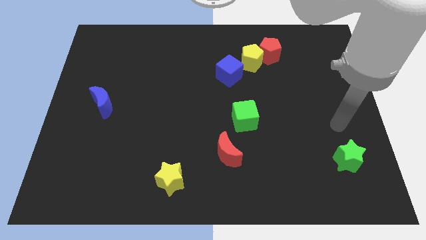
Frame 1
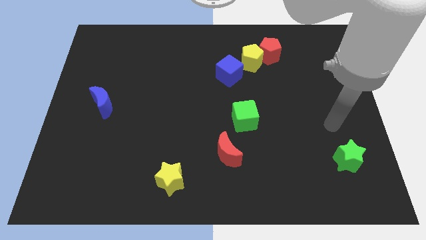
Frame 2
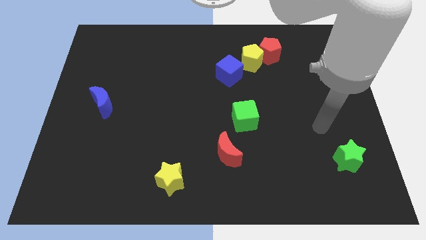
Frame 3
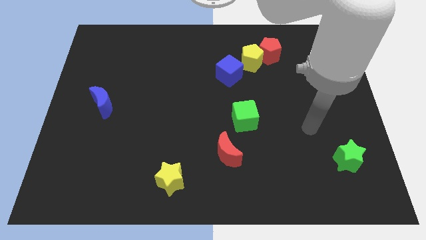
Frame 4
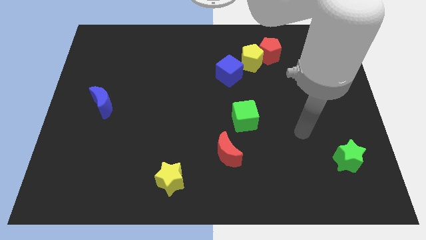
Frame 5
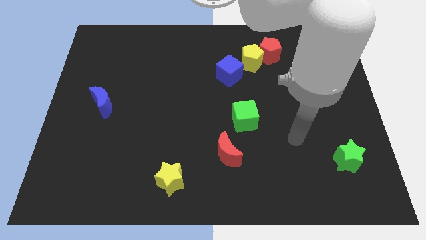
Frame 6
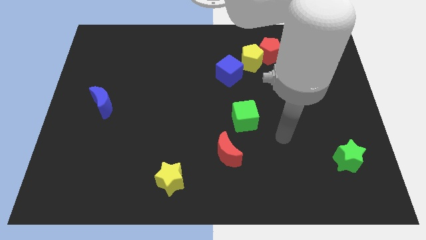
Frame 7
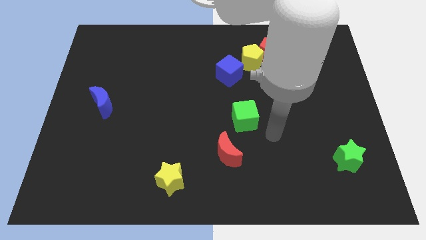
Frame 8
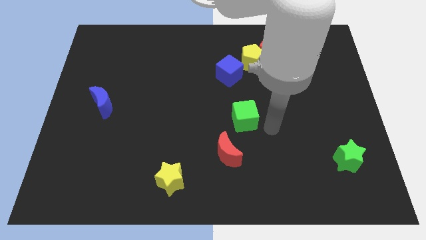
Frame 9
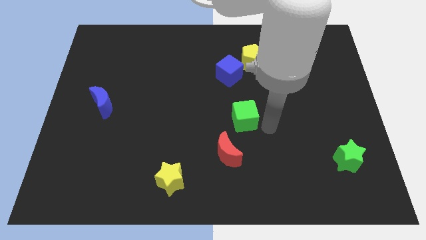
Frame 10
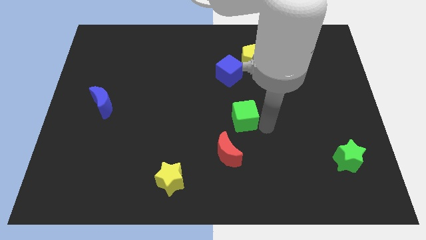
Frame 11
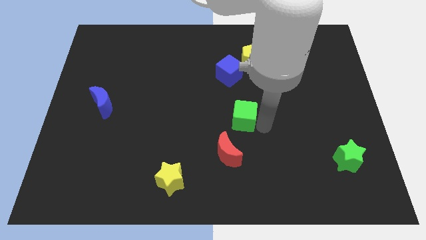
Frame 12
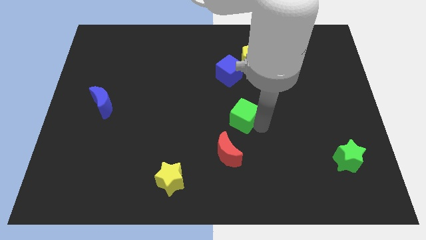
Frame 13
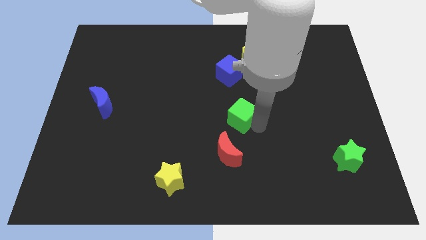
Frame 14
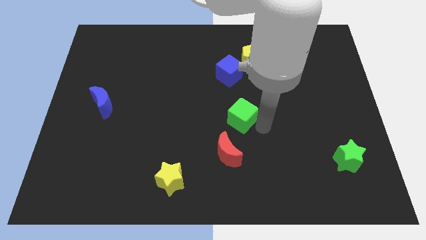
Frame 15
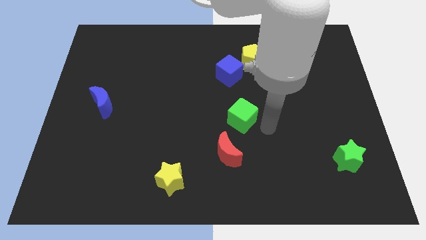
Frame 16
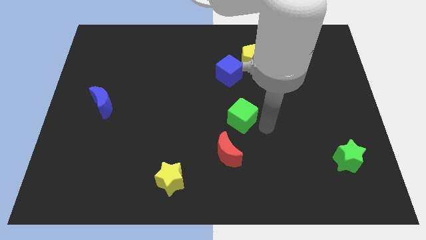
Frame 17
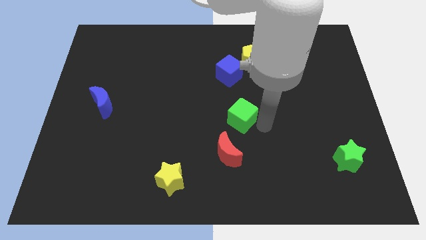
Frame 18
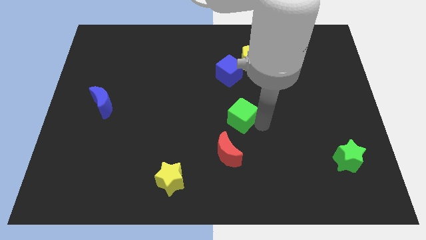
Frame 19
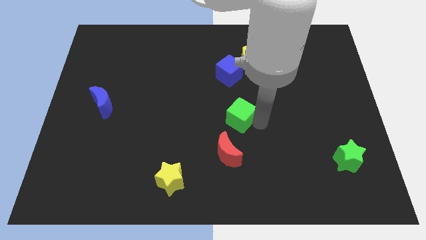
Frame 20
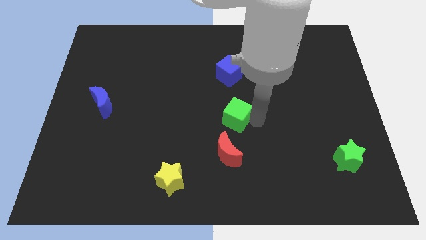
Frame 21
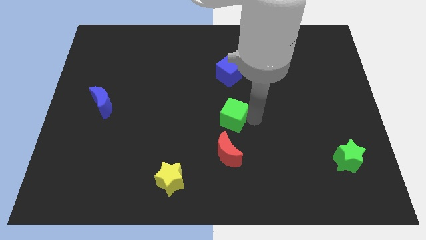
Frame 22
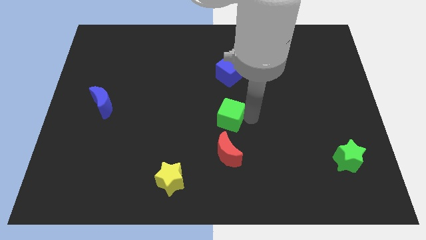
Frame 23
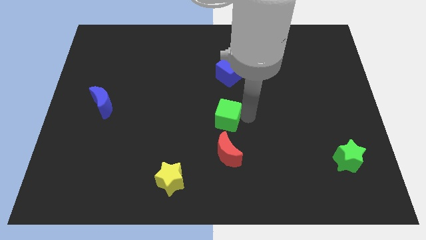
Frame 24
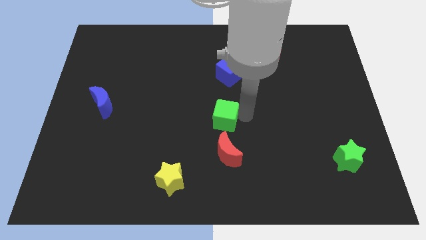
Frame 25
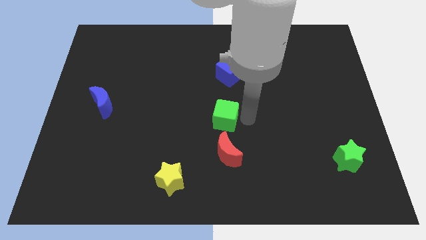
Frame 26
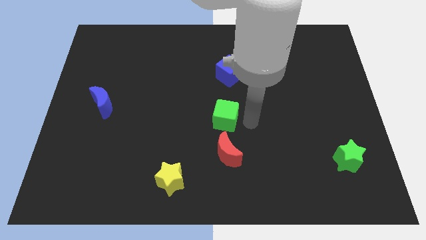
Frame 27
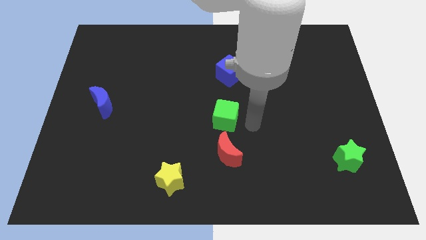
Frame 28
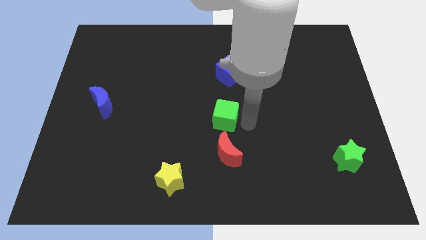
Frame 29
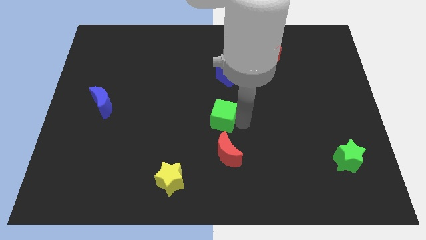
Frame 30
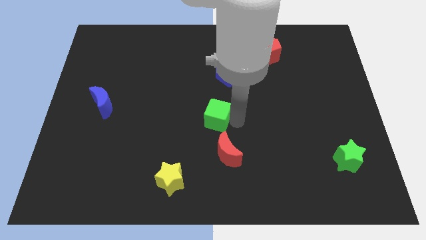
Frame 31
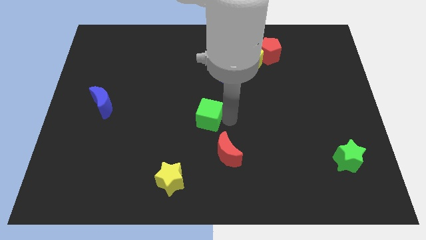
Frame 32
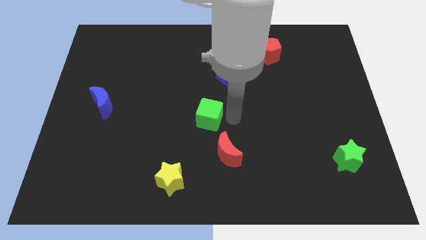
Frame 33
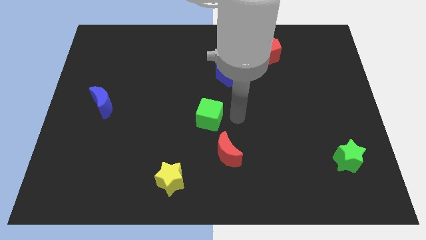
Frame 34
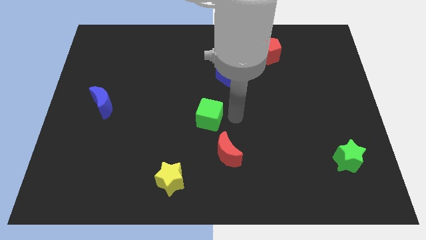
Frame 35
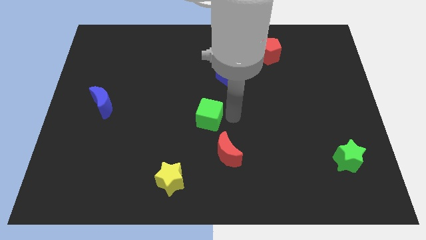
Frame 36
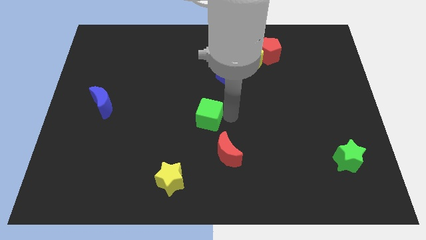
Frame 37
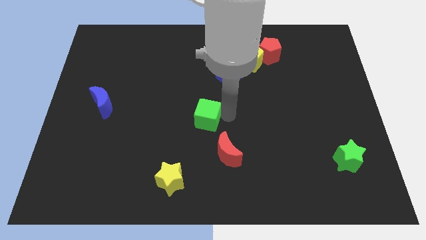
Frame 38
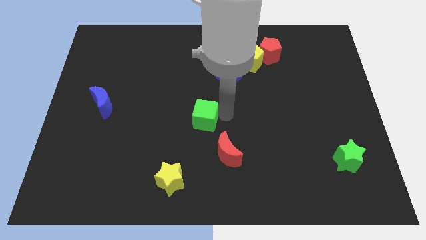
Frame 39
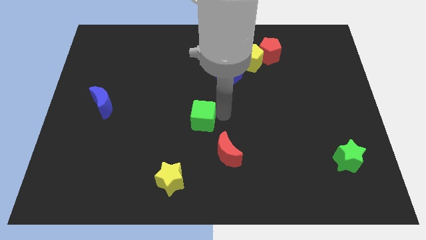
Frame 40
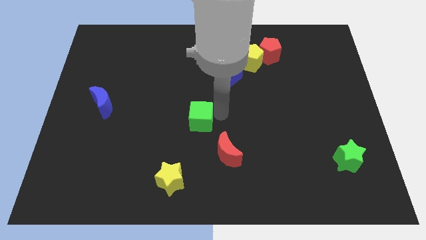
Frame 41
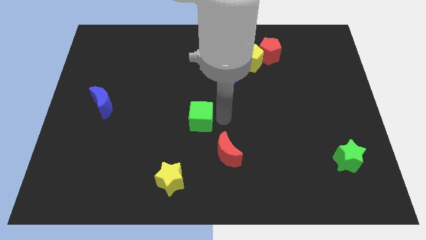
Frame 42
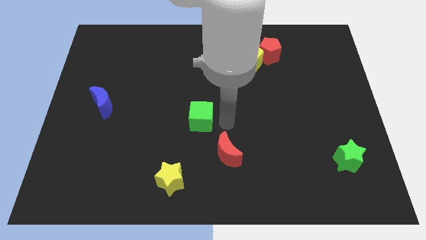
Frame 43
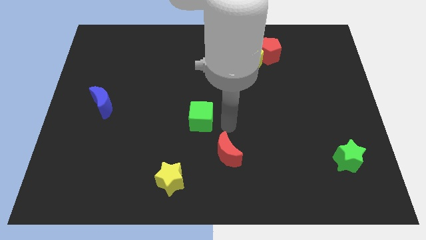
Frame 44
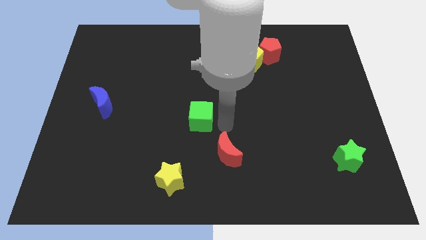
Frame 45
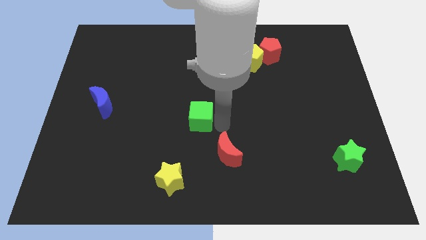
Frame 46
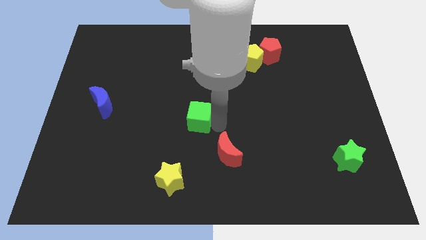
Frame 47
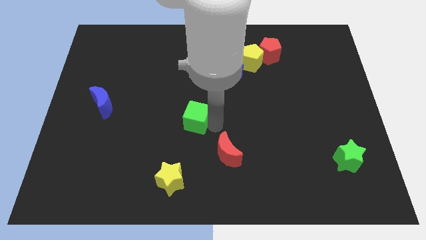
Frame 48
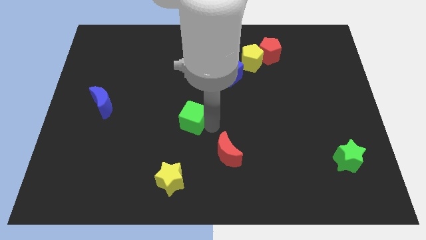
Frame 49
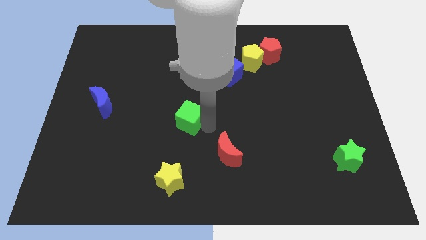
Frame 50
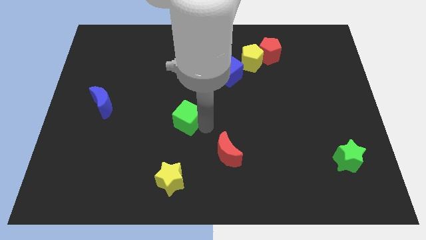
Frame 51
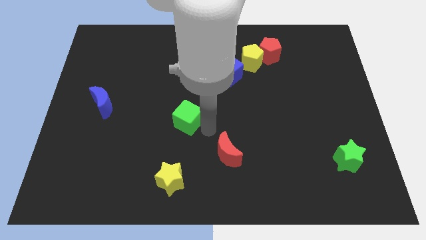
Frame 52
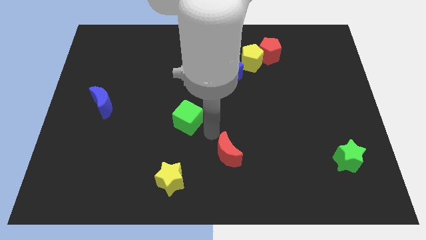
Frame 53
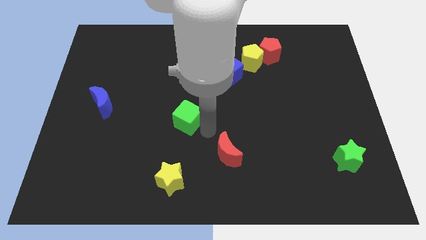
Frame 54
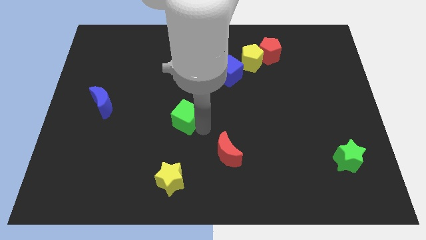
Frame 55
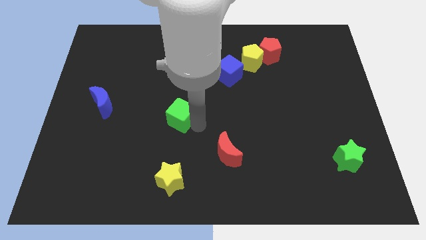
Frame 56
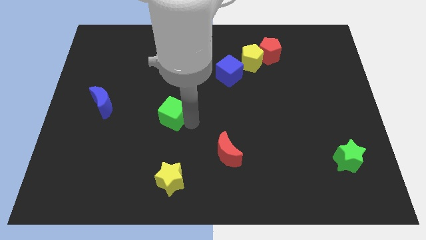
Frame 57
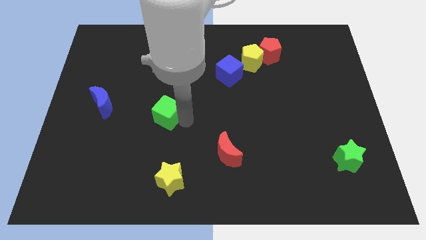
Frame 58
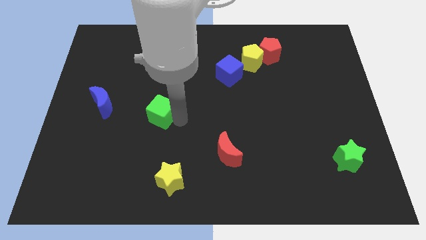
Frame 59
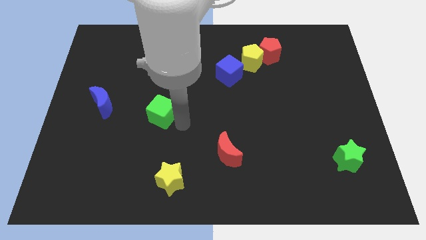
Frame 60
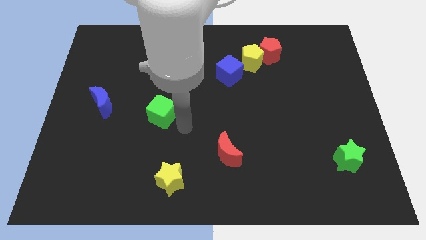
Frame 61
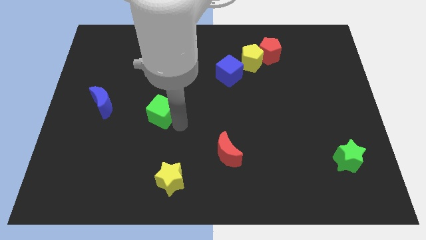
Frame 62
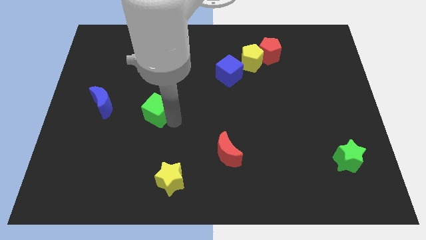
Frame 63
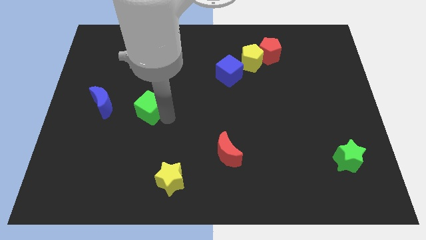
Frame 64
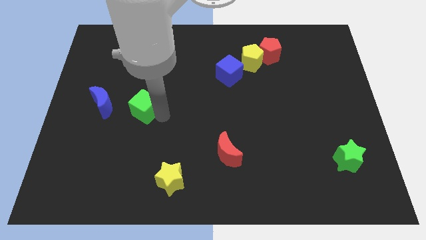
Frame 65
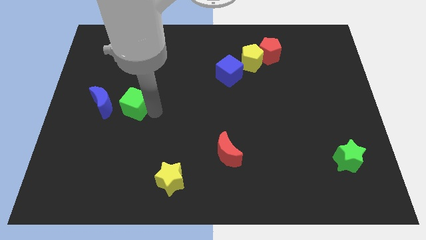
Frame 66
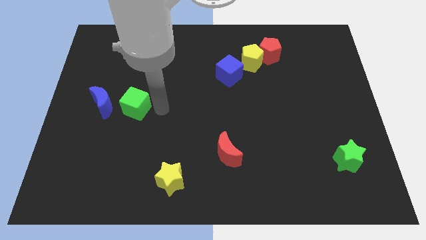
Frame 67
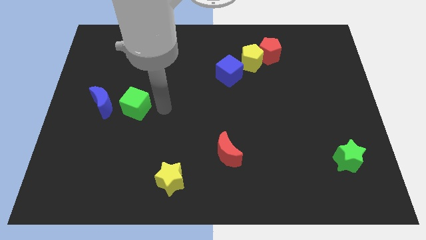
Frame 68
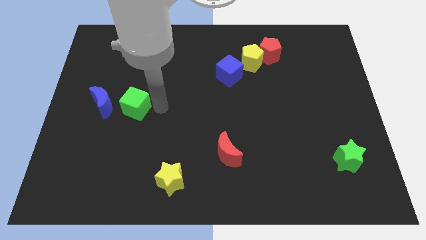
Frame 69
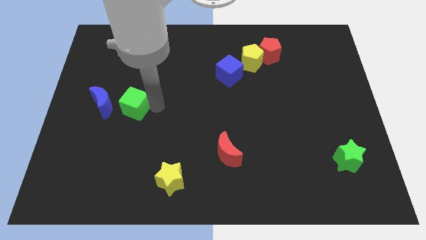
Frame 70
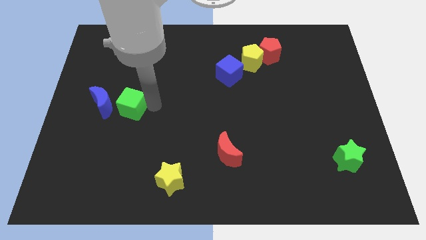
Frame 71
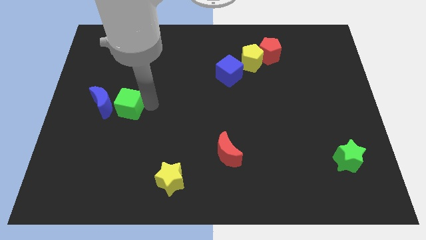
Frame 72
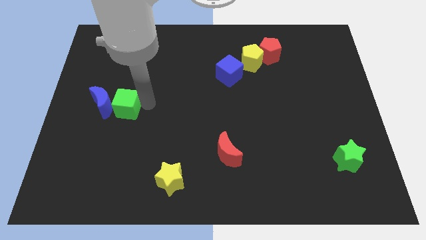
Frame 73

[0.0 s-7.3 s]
push the green cube to the blue moon
